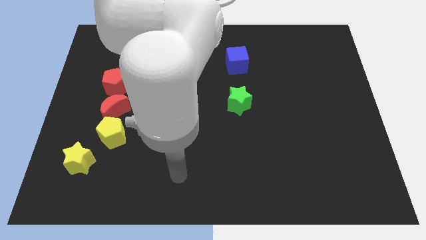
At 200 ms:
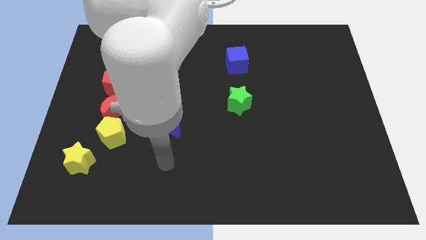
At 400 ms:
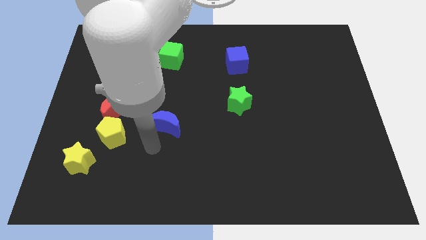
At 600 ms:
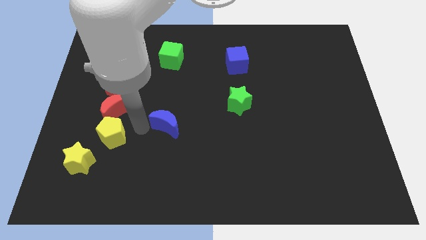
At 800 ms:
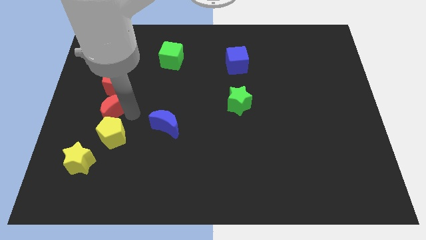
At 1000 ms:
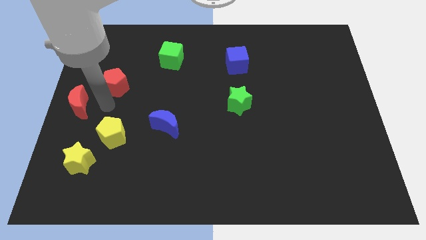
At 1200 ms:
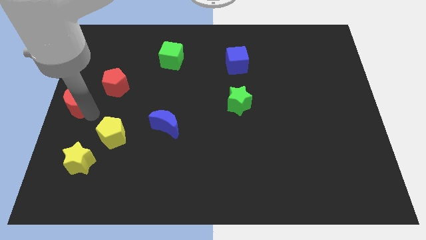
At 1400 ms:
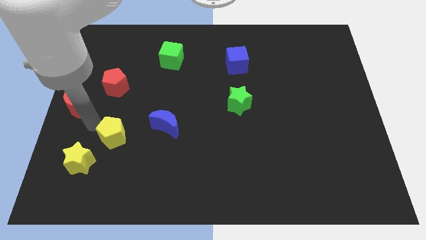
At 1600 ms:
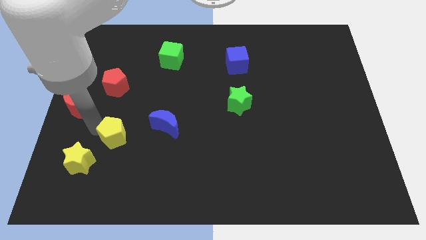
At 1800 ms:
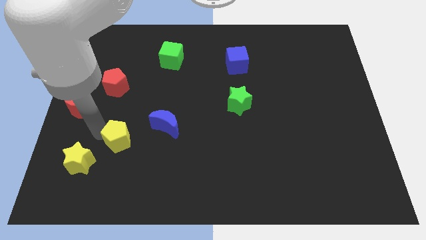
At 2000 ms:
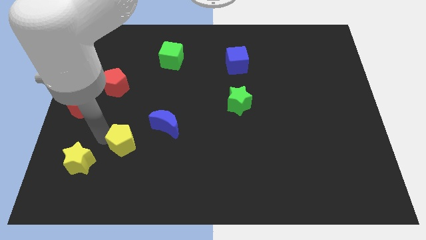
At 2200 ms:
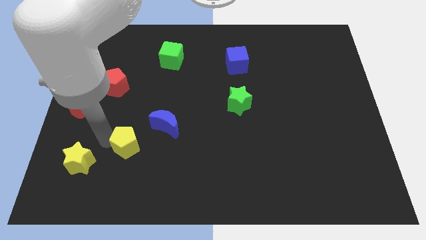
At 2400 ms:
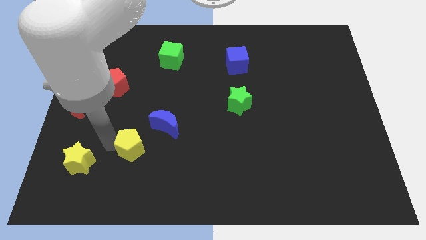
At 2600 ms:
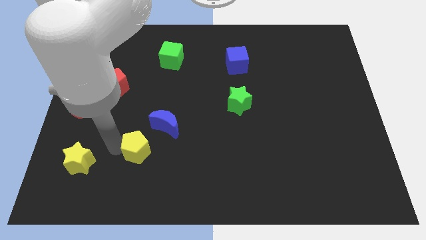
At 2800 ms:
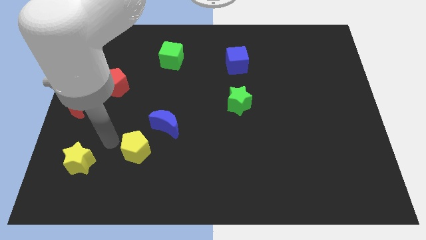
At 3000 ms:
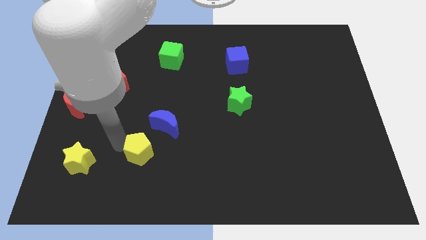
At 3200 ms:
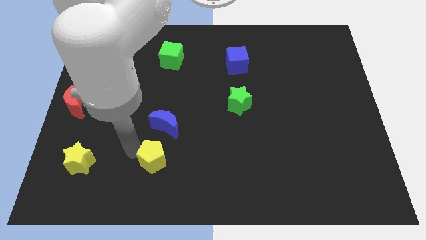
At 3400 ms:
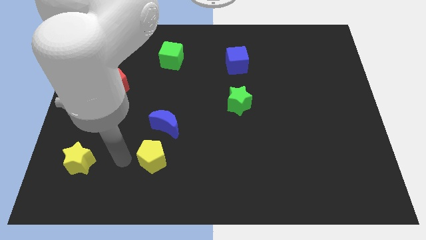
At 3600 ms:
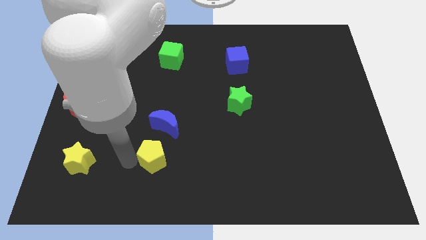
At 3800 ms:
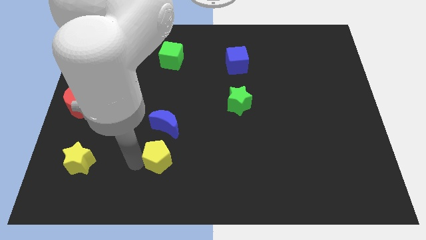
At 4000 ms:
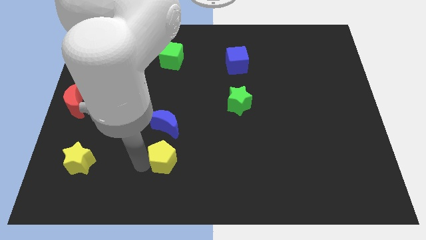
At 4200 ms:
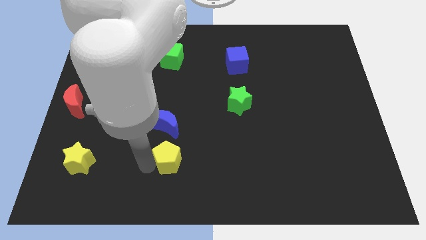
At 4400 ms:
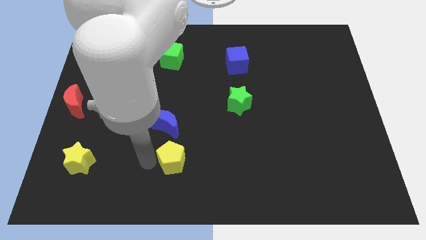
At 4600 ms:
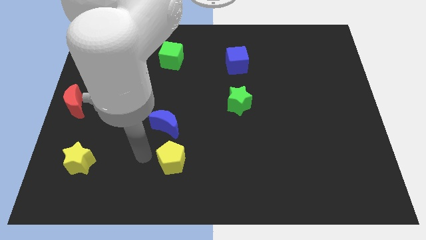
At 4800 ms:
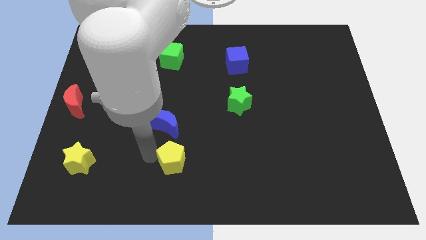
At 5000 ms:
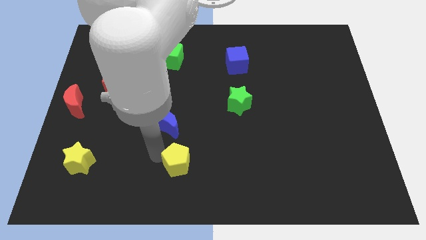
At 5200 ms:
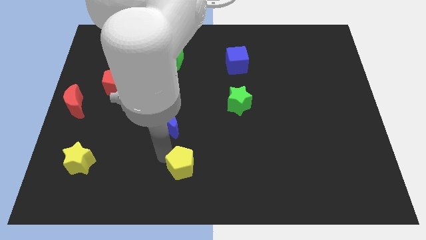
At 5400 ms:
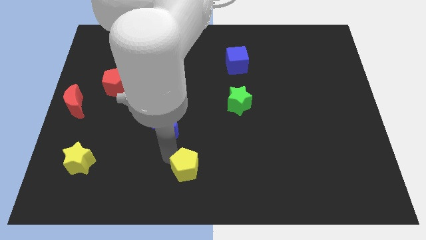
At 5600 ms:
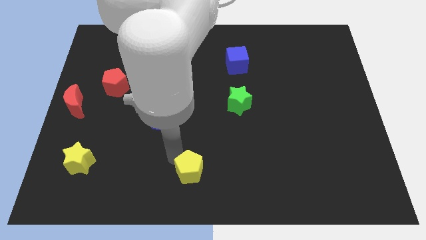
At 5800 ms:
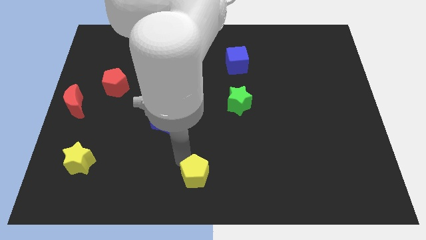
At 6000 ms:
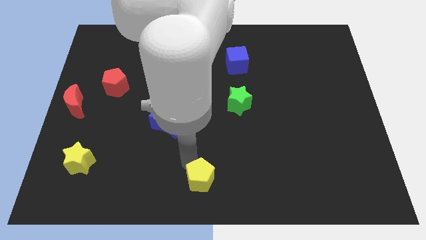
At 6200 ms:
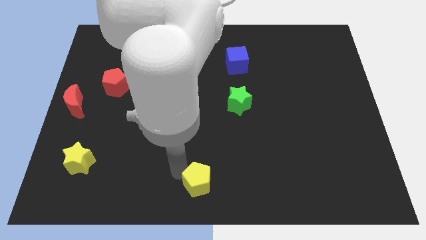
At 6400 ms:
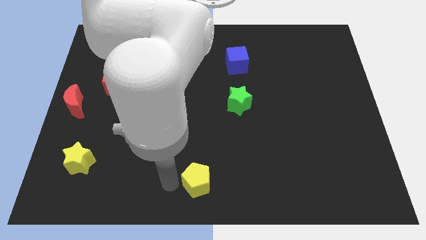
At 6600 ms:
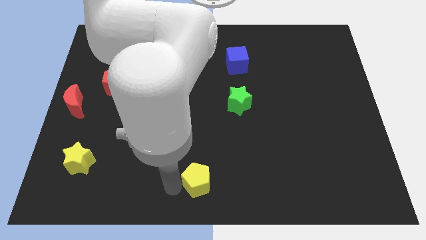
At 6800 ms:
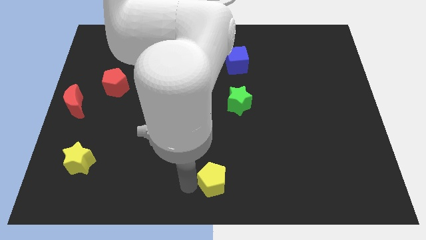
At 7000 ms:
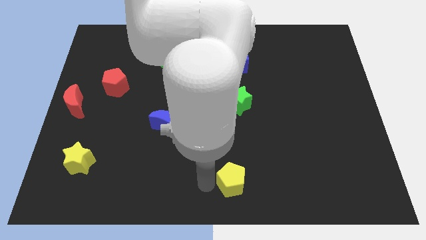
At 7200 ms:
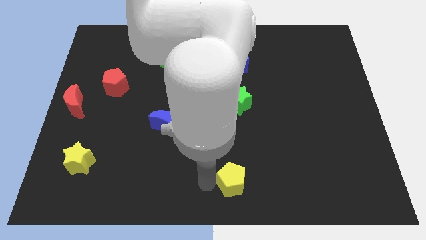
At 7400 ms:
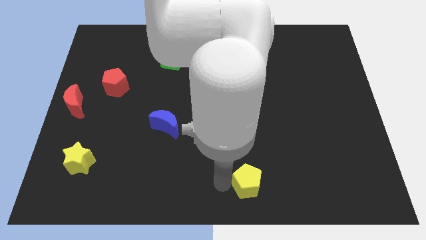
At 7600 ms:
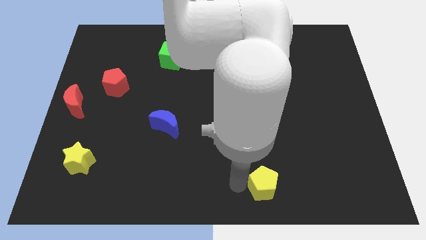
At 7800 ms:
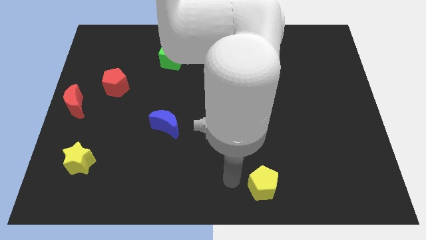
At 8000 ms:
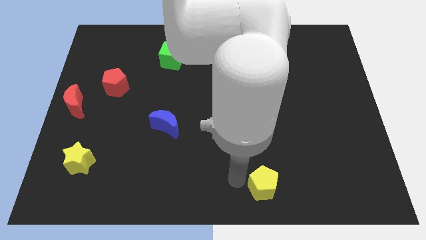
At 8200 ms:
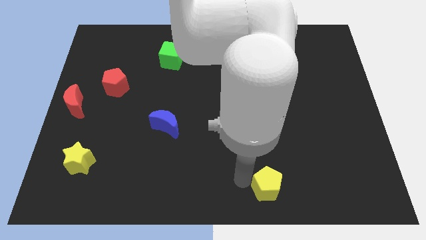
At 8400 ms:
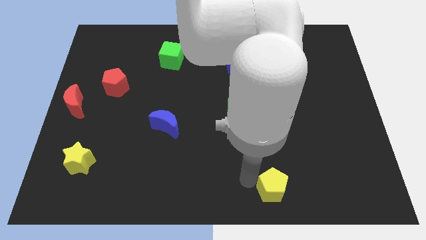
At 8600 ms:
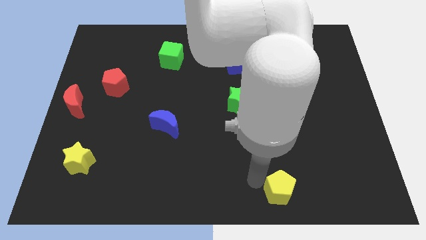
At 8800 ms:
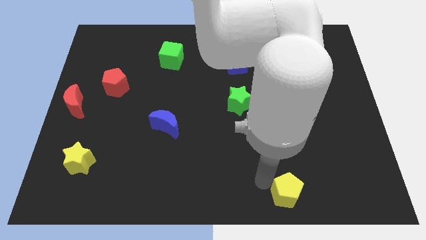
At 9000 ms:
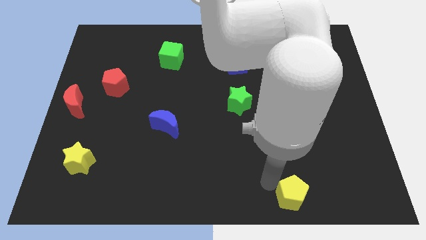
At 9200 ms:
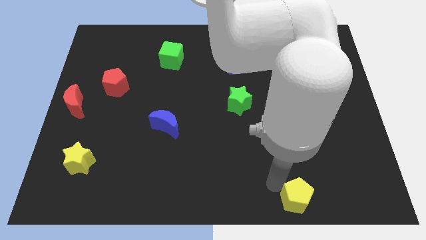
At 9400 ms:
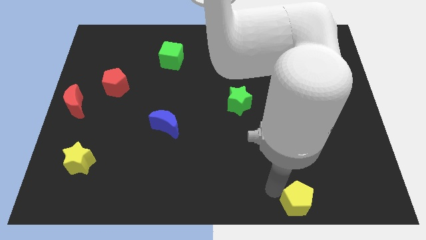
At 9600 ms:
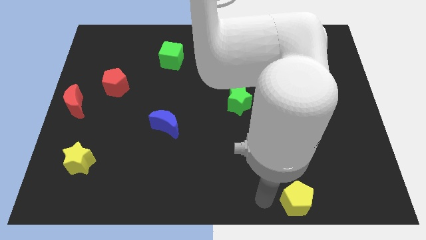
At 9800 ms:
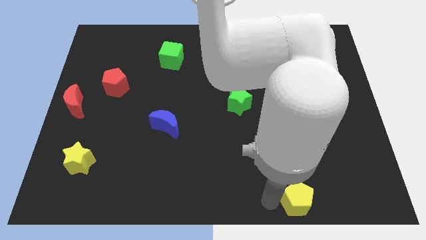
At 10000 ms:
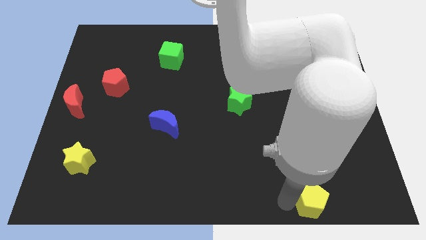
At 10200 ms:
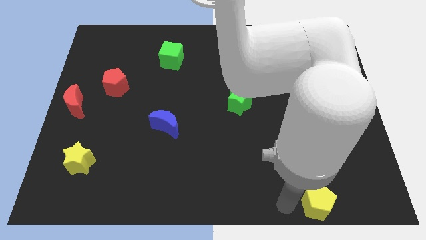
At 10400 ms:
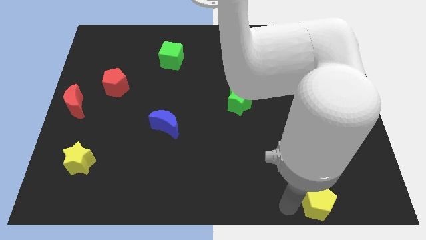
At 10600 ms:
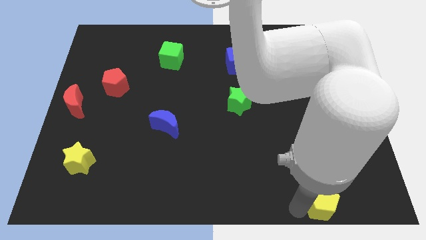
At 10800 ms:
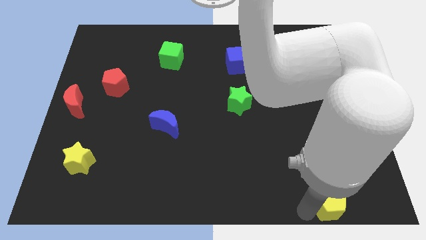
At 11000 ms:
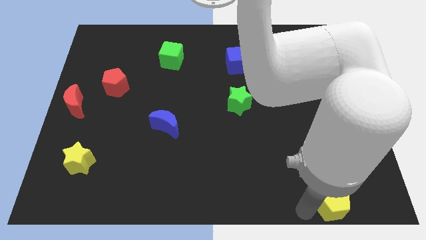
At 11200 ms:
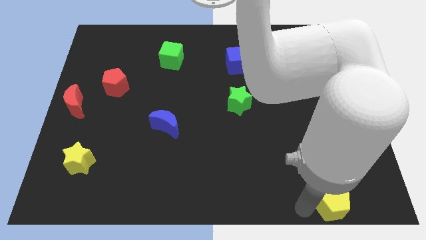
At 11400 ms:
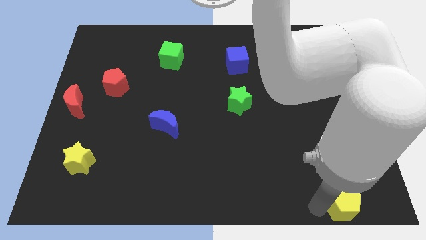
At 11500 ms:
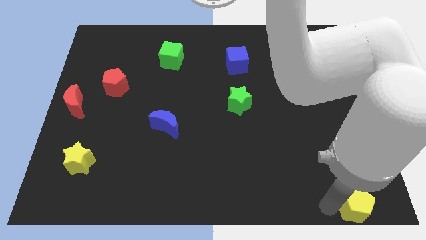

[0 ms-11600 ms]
put the yellow pentagon to the lower right corner

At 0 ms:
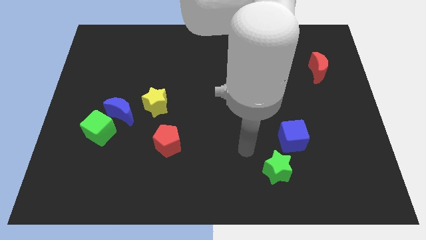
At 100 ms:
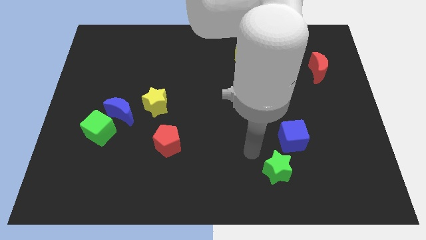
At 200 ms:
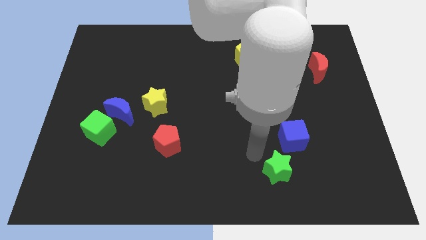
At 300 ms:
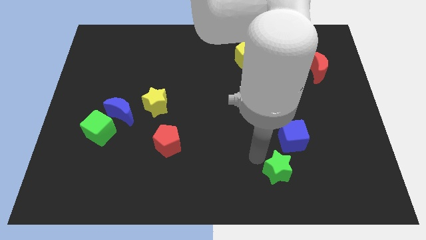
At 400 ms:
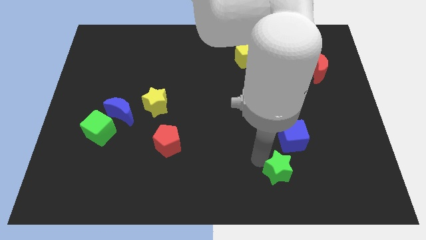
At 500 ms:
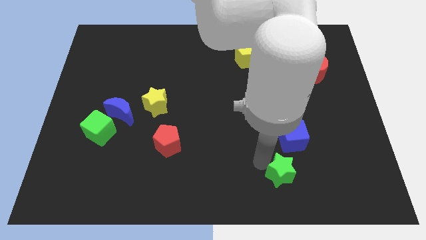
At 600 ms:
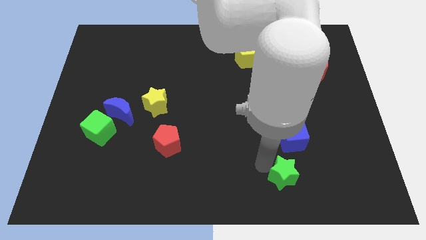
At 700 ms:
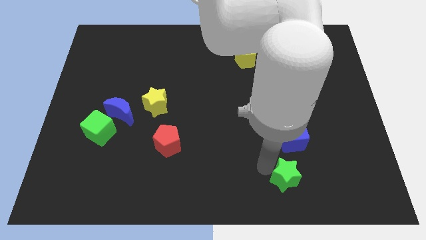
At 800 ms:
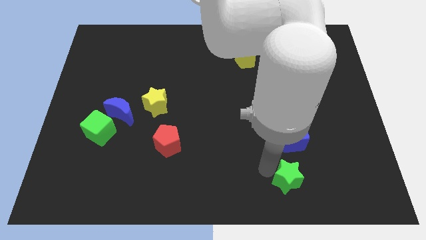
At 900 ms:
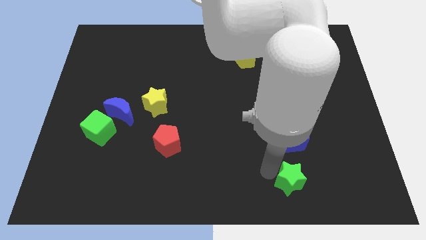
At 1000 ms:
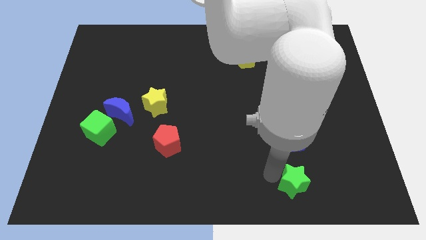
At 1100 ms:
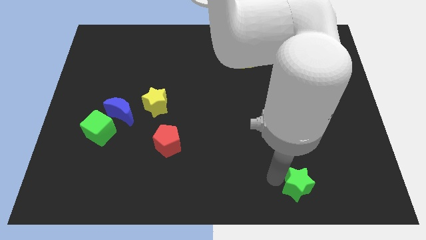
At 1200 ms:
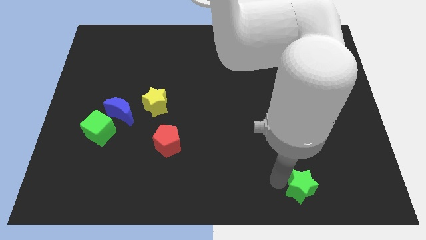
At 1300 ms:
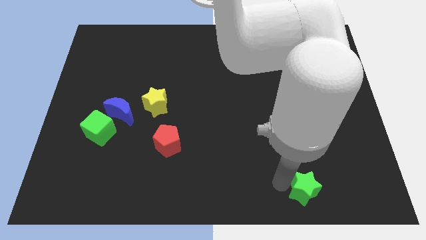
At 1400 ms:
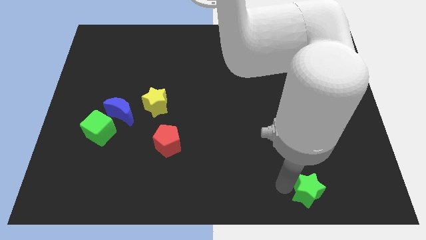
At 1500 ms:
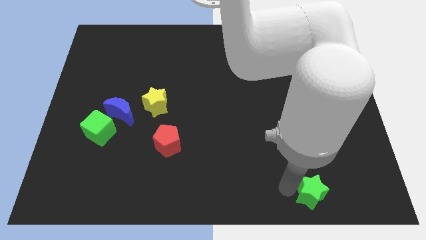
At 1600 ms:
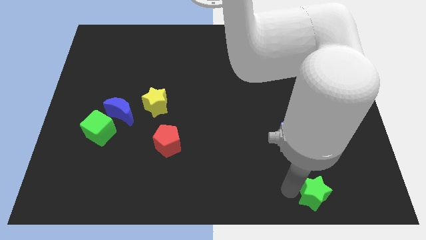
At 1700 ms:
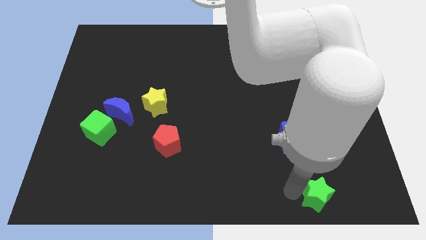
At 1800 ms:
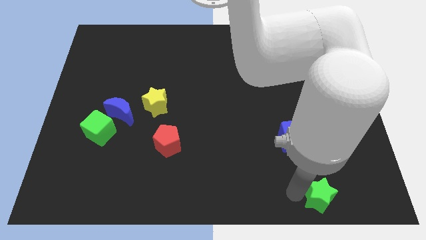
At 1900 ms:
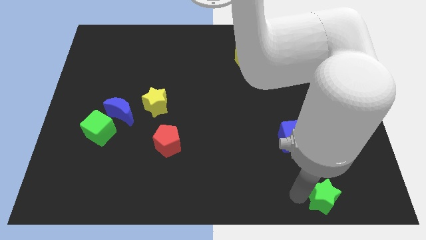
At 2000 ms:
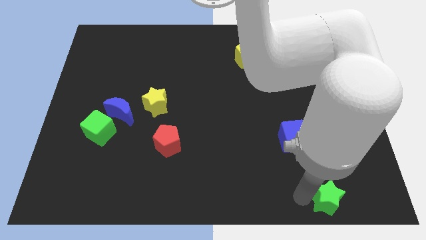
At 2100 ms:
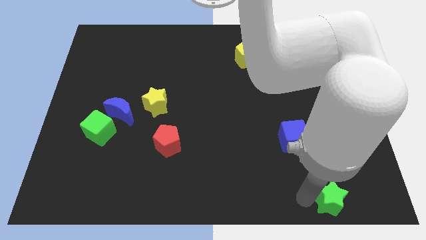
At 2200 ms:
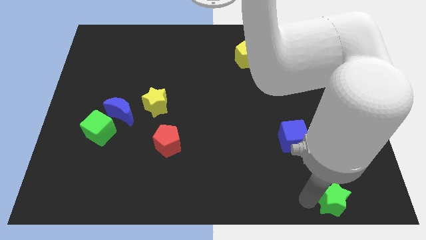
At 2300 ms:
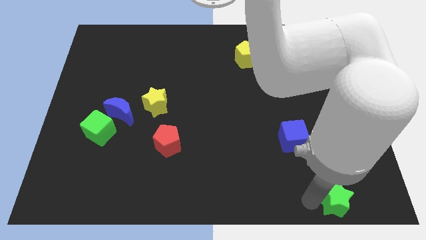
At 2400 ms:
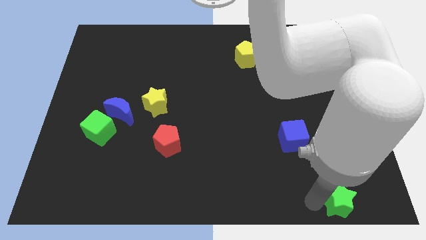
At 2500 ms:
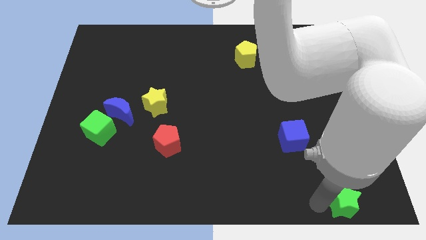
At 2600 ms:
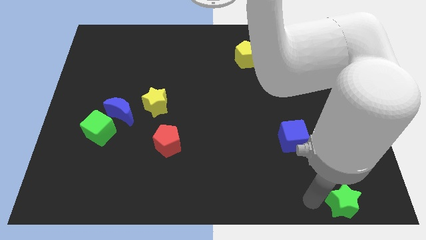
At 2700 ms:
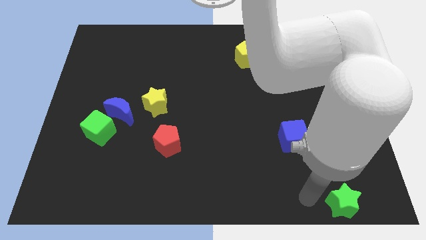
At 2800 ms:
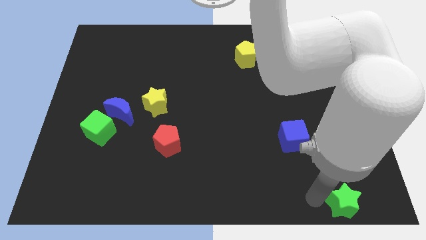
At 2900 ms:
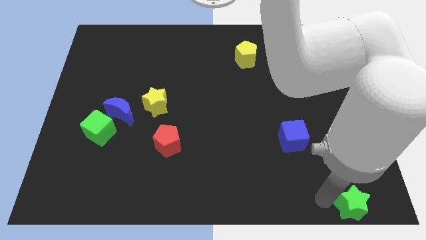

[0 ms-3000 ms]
put the green star to the bottom right of the board
